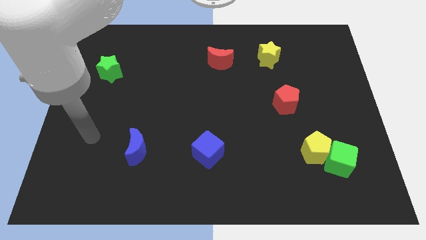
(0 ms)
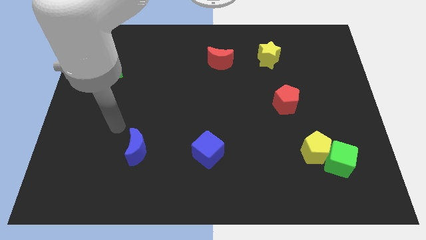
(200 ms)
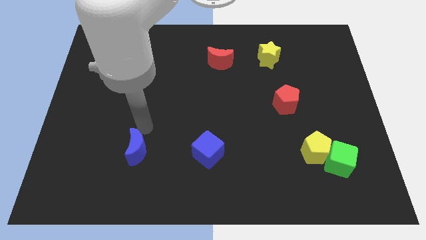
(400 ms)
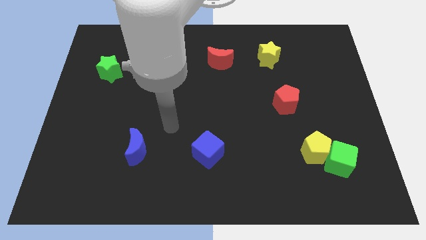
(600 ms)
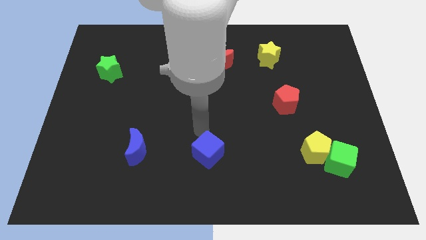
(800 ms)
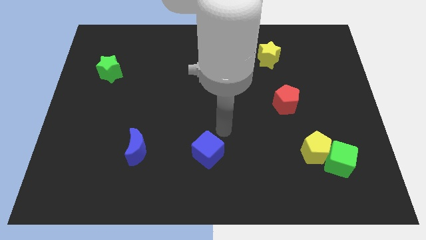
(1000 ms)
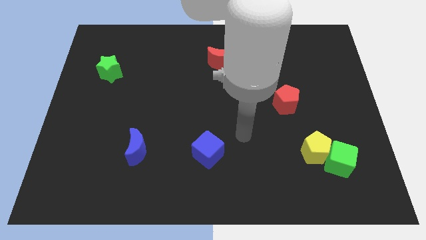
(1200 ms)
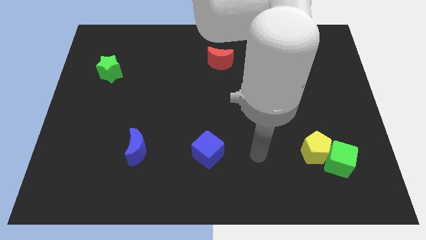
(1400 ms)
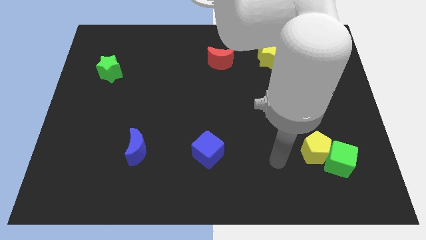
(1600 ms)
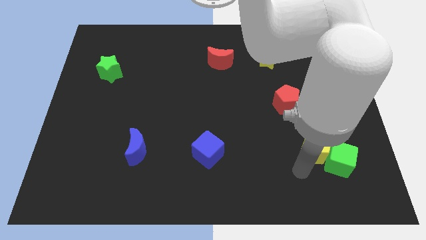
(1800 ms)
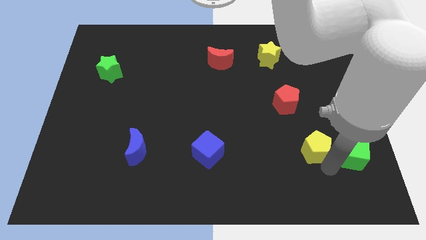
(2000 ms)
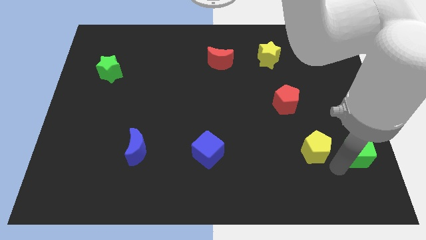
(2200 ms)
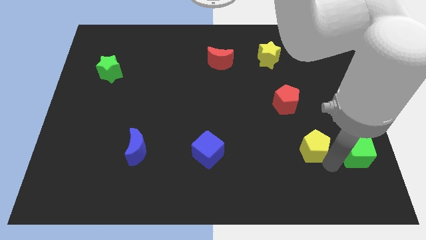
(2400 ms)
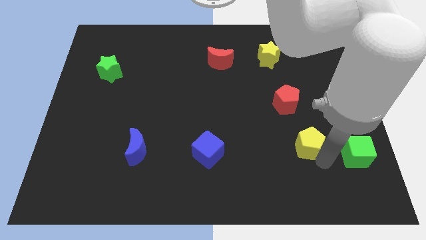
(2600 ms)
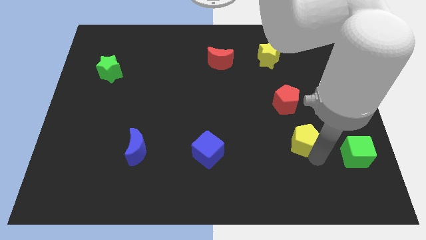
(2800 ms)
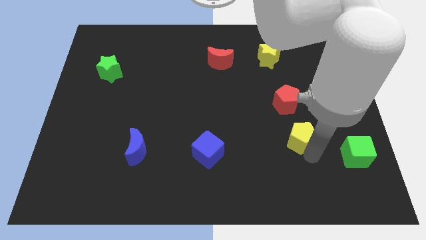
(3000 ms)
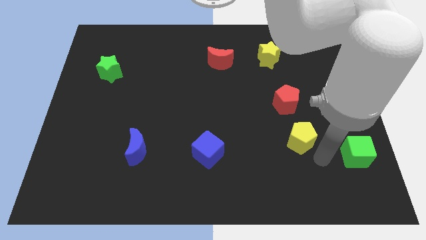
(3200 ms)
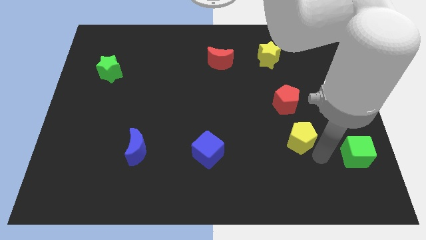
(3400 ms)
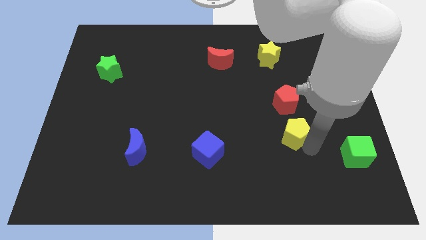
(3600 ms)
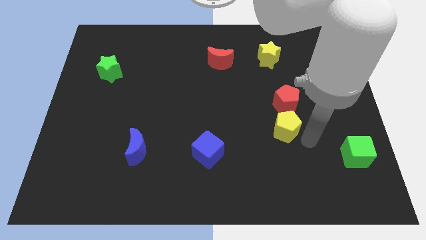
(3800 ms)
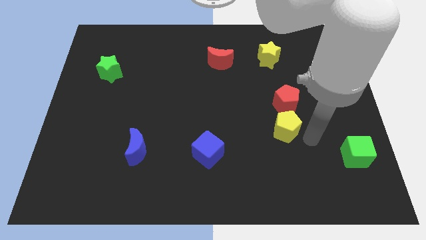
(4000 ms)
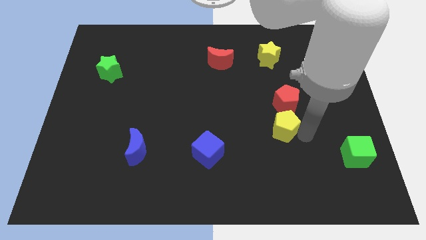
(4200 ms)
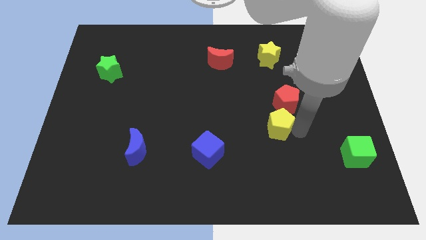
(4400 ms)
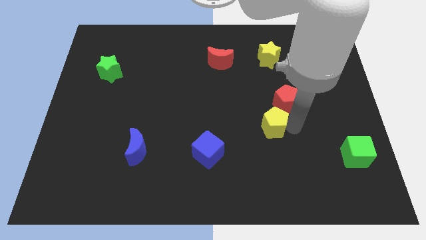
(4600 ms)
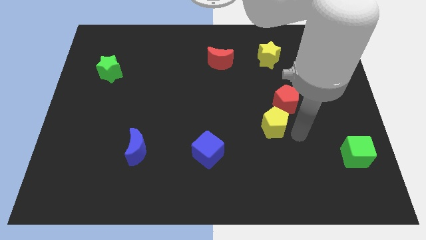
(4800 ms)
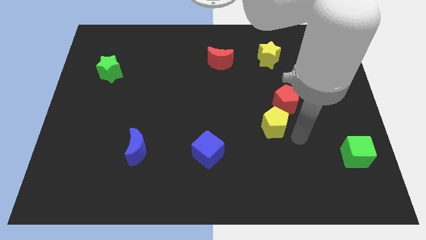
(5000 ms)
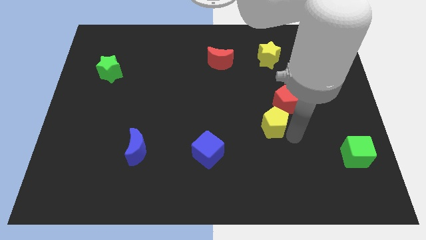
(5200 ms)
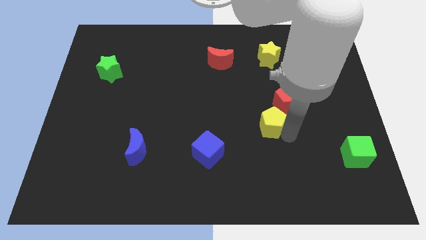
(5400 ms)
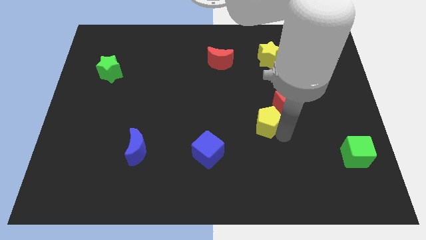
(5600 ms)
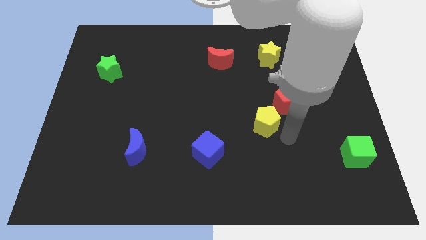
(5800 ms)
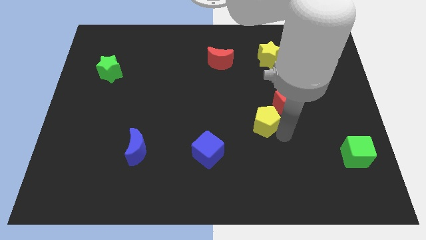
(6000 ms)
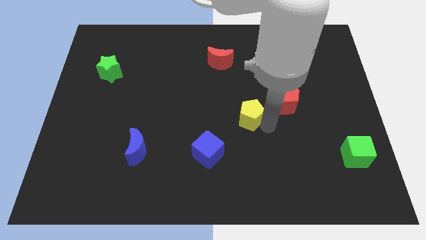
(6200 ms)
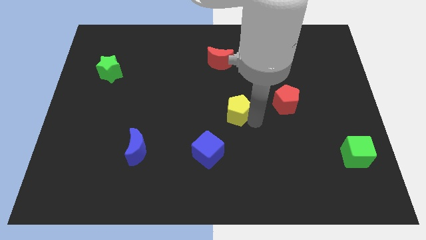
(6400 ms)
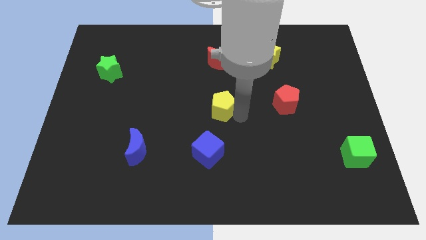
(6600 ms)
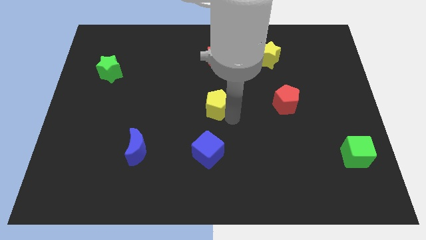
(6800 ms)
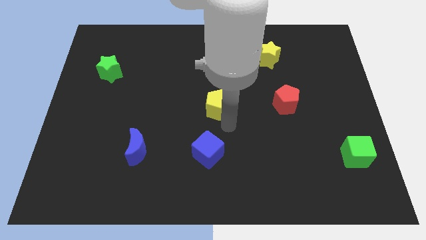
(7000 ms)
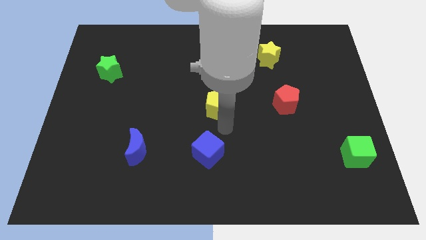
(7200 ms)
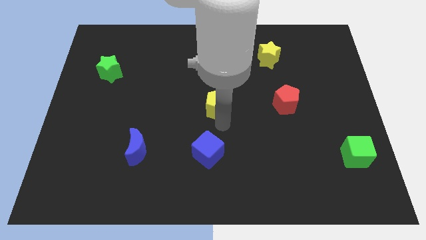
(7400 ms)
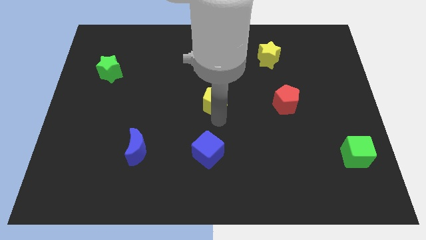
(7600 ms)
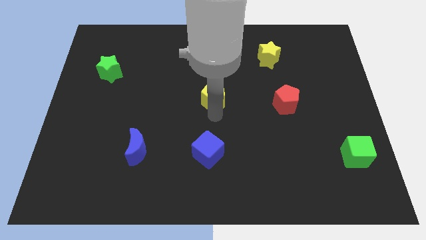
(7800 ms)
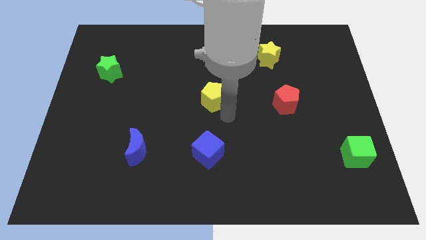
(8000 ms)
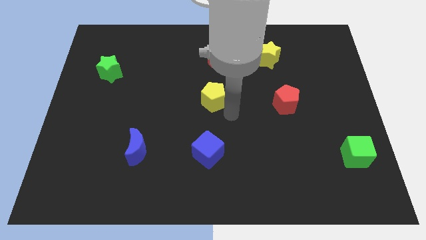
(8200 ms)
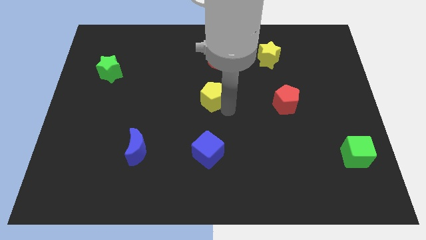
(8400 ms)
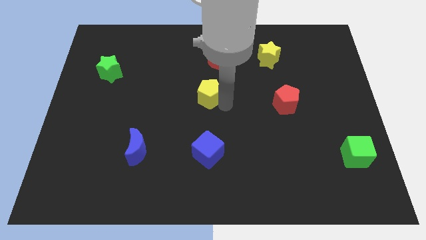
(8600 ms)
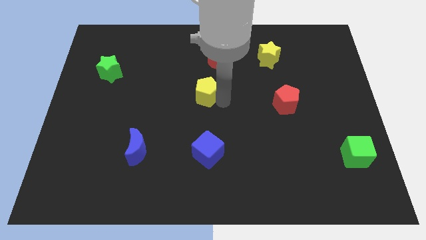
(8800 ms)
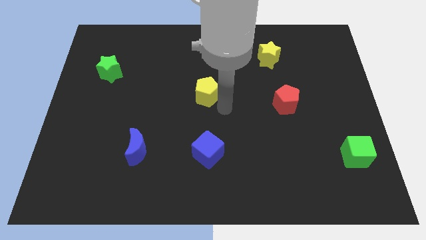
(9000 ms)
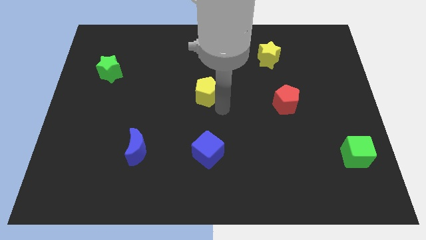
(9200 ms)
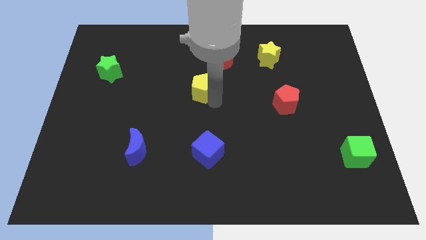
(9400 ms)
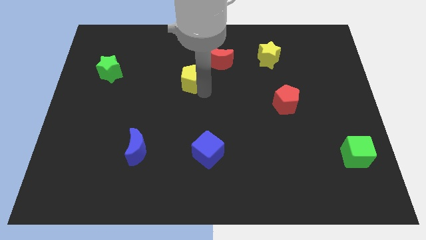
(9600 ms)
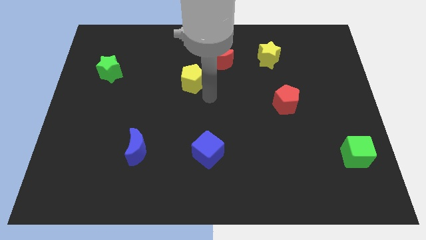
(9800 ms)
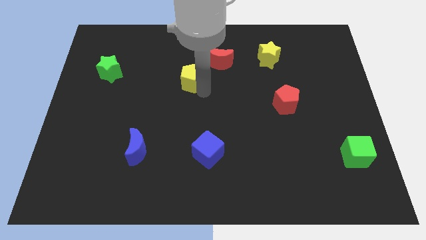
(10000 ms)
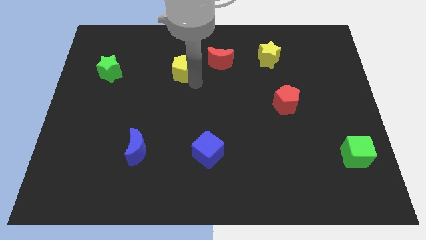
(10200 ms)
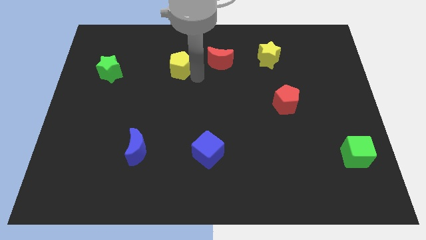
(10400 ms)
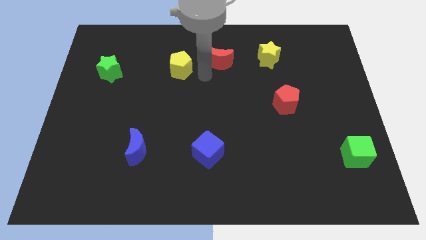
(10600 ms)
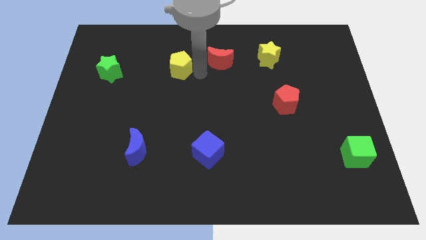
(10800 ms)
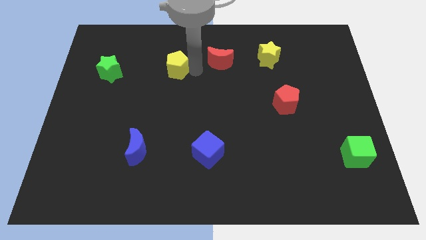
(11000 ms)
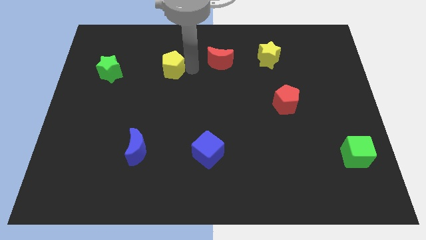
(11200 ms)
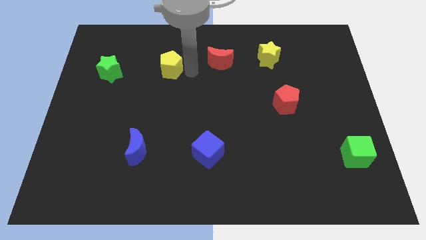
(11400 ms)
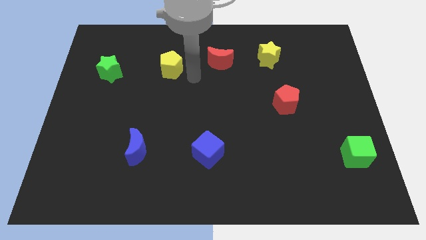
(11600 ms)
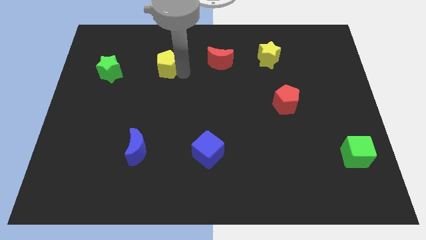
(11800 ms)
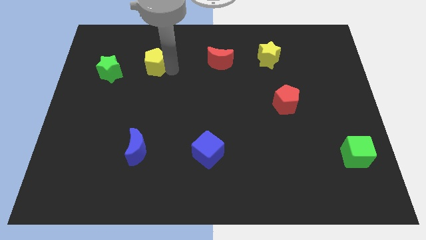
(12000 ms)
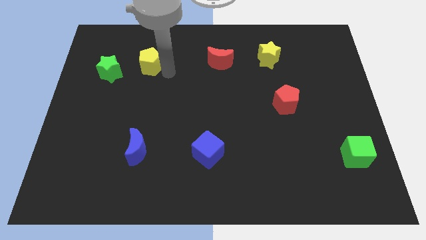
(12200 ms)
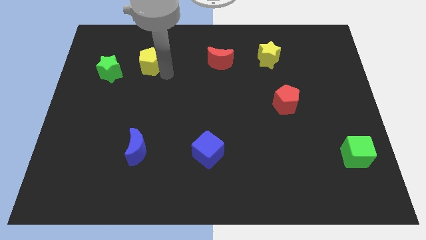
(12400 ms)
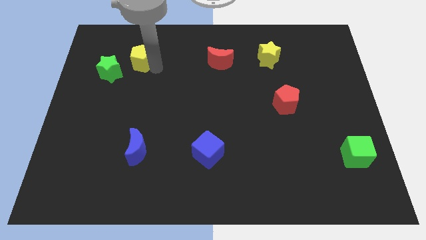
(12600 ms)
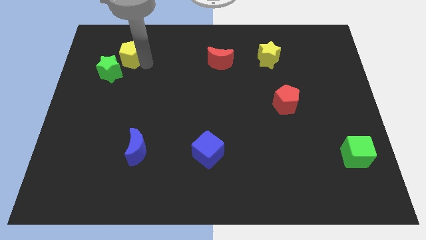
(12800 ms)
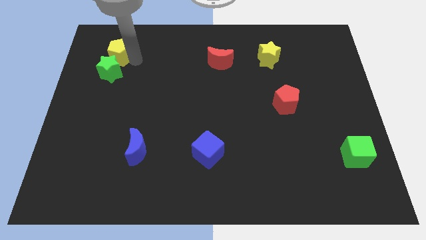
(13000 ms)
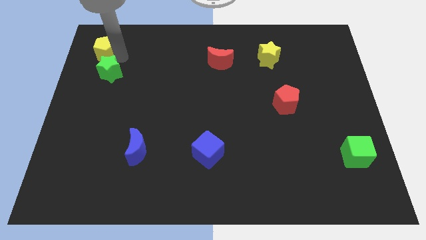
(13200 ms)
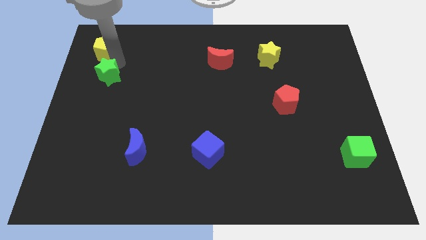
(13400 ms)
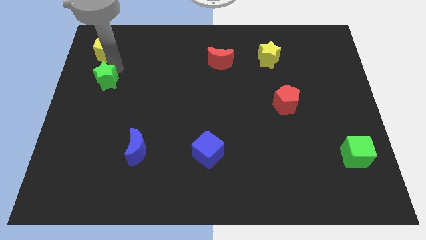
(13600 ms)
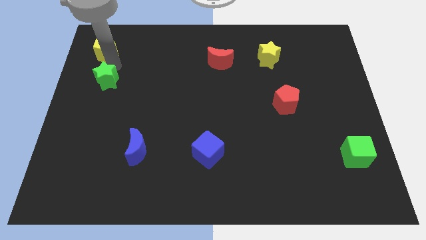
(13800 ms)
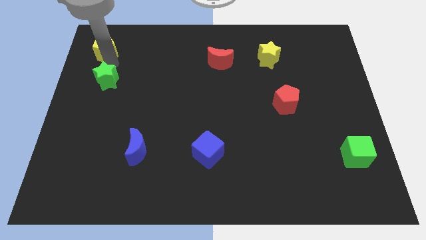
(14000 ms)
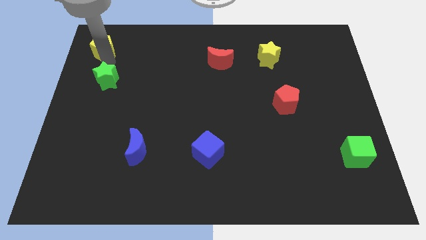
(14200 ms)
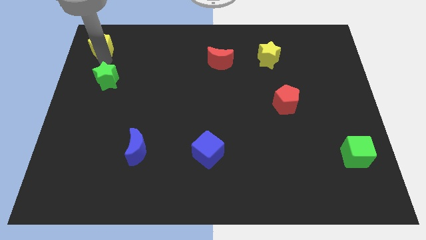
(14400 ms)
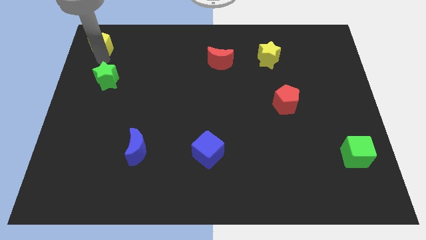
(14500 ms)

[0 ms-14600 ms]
push the yellow pentagon to the top left

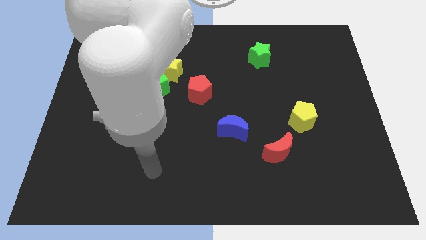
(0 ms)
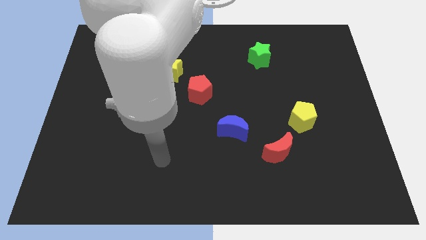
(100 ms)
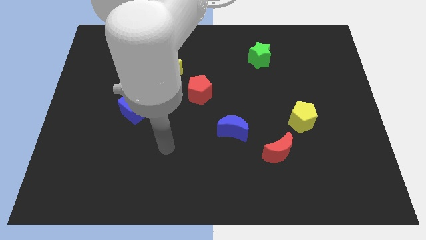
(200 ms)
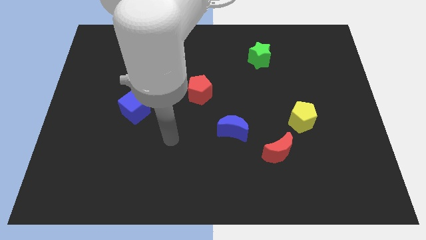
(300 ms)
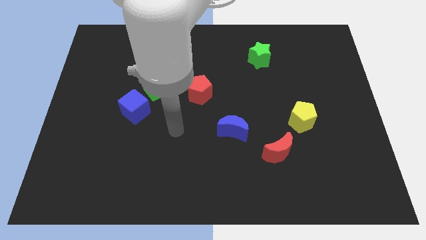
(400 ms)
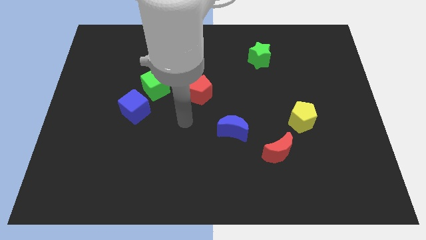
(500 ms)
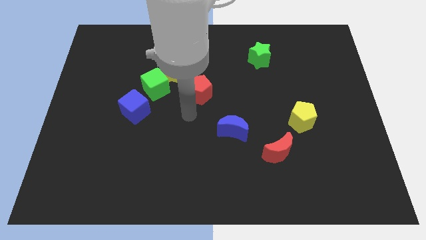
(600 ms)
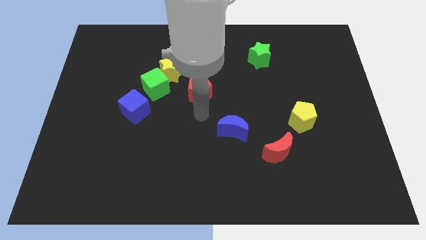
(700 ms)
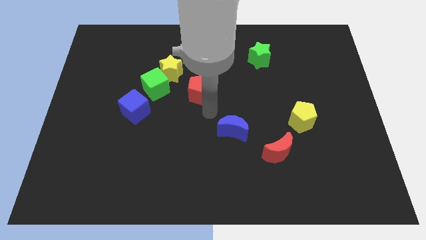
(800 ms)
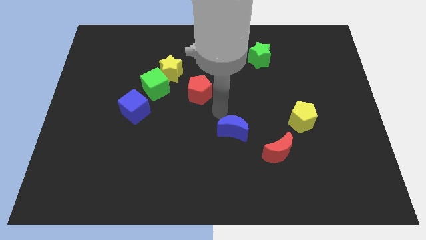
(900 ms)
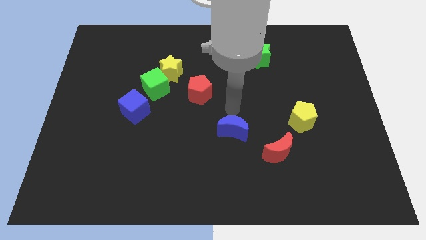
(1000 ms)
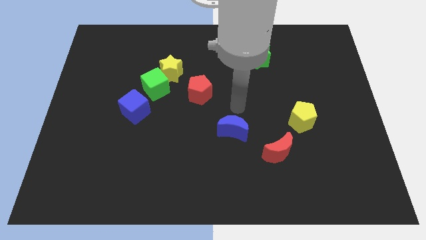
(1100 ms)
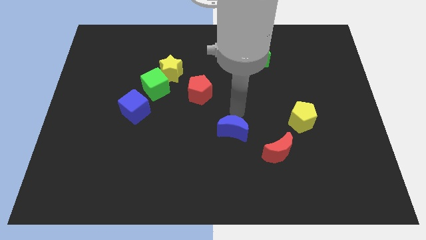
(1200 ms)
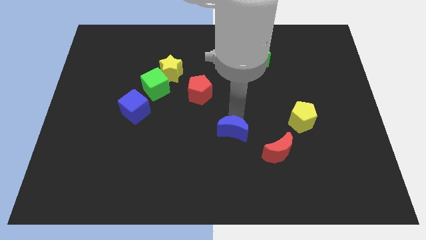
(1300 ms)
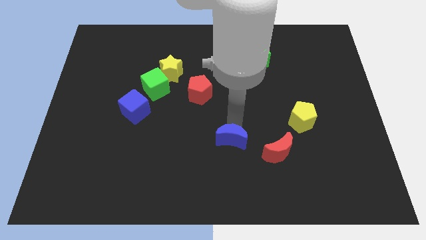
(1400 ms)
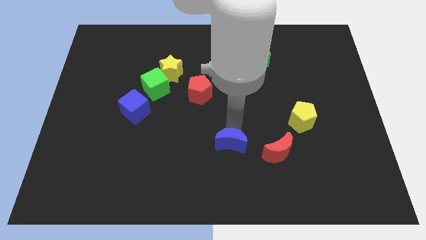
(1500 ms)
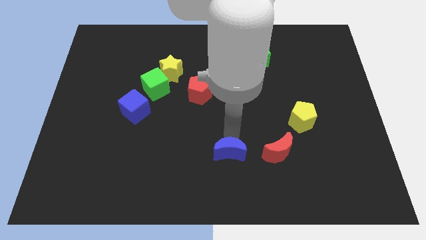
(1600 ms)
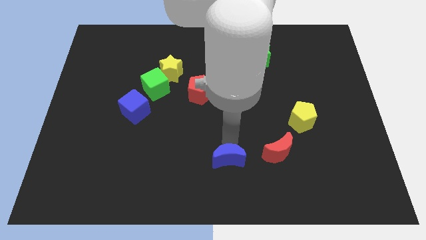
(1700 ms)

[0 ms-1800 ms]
push the blue moon to the bottom side
